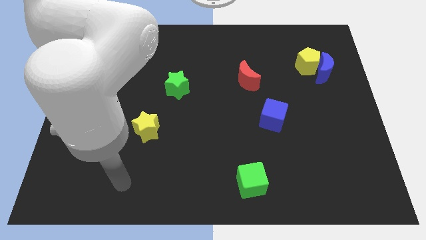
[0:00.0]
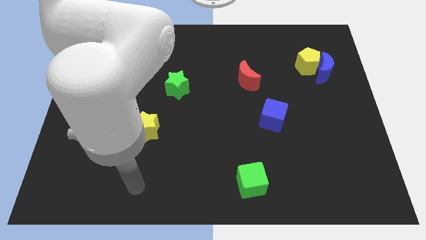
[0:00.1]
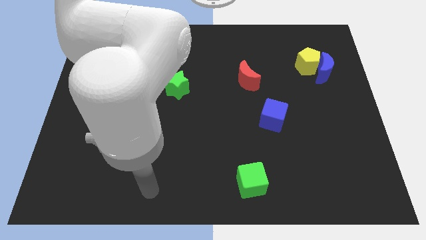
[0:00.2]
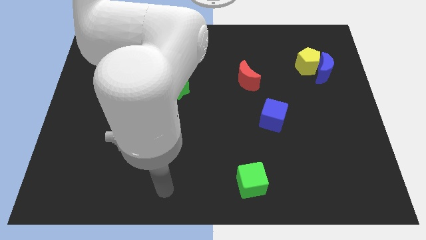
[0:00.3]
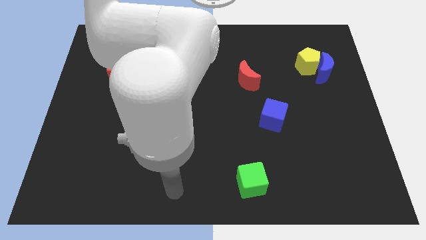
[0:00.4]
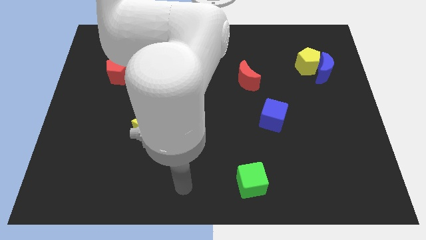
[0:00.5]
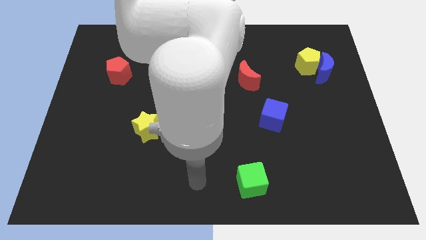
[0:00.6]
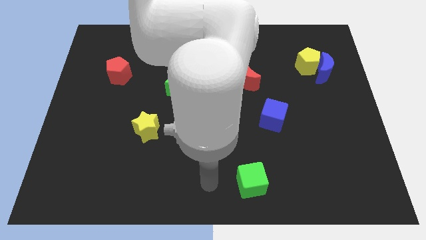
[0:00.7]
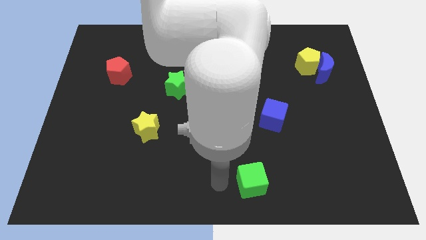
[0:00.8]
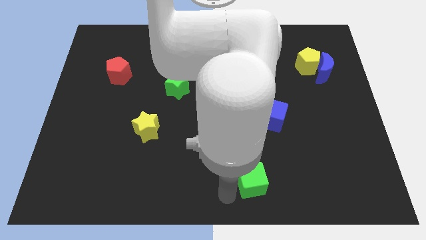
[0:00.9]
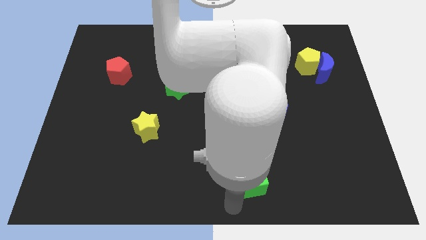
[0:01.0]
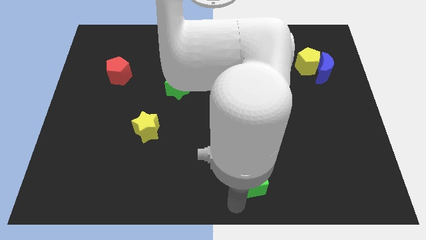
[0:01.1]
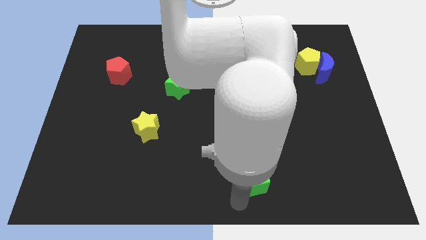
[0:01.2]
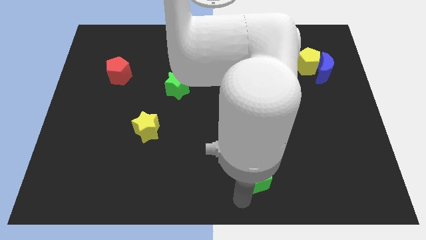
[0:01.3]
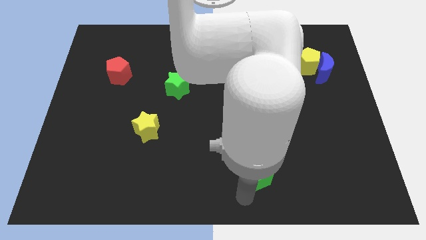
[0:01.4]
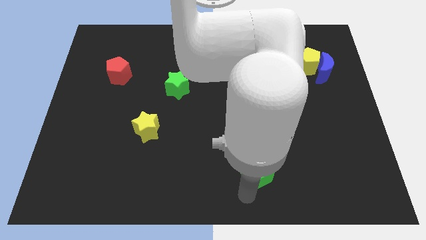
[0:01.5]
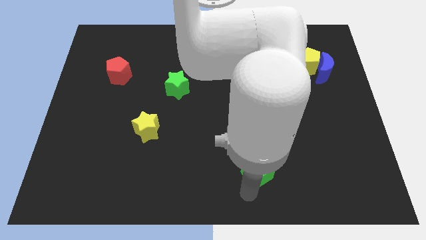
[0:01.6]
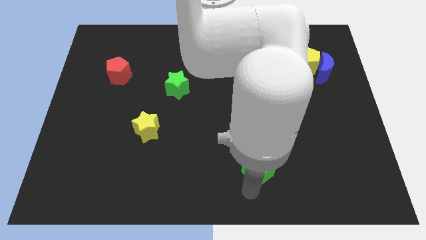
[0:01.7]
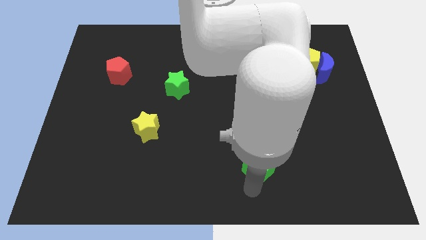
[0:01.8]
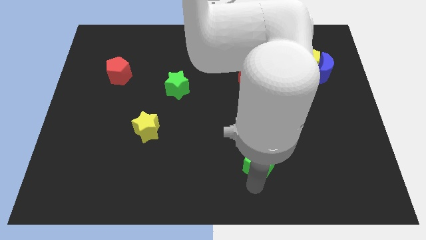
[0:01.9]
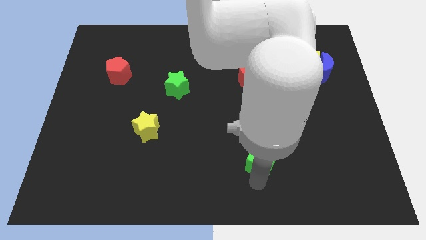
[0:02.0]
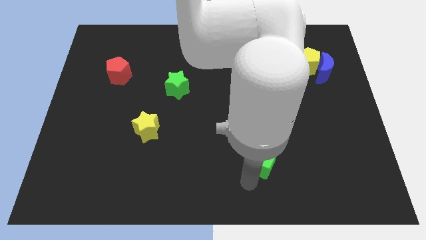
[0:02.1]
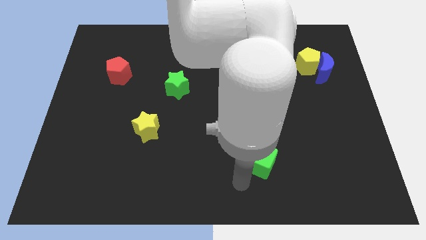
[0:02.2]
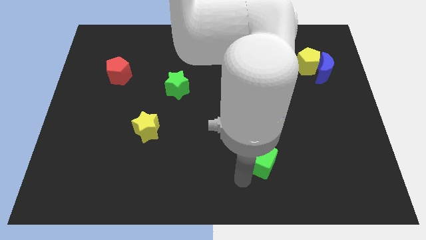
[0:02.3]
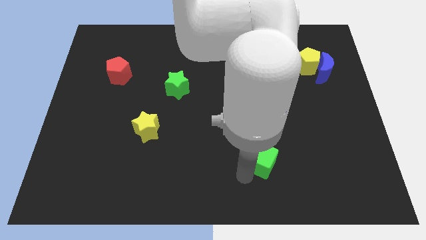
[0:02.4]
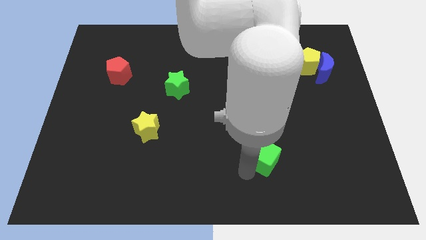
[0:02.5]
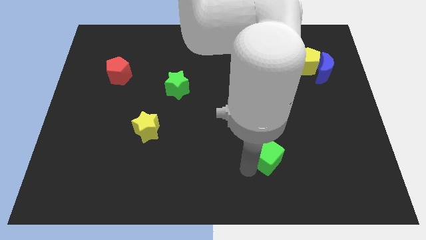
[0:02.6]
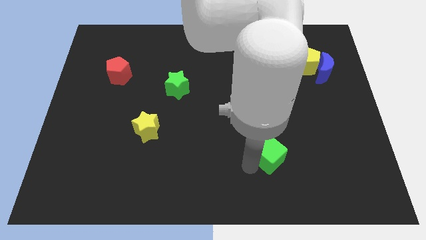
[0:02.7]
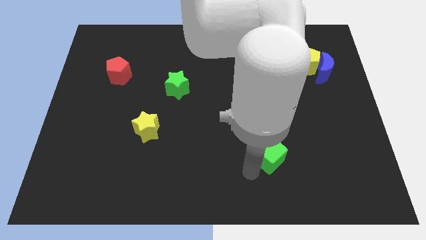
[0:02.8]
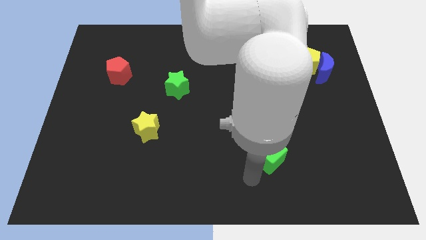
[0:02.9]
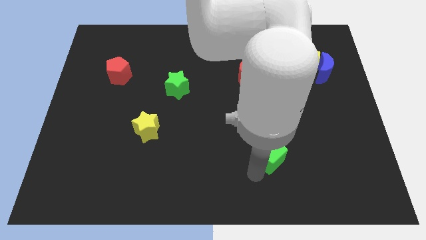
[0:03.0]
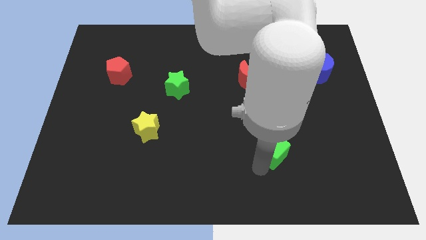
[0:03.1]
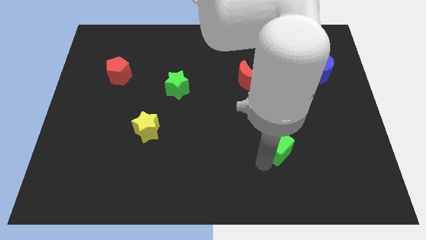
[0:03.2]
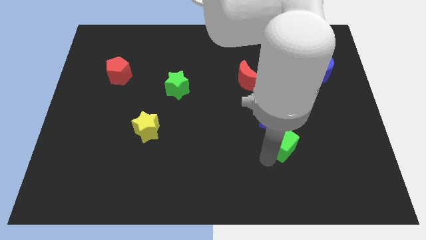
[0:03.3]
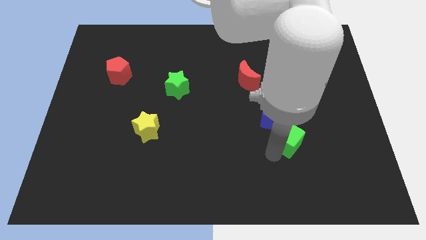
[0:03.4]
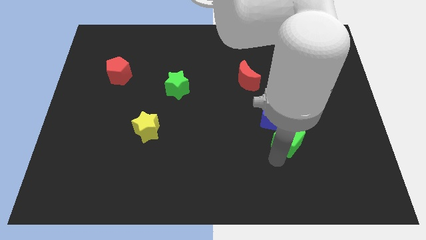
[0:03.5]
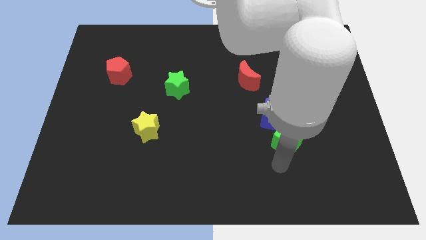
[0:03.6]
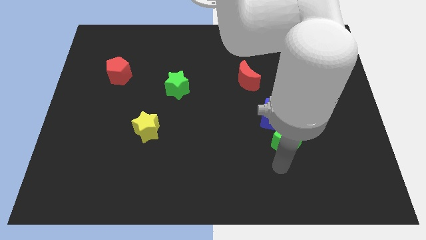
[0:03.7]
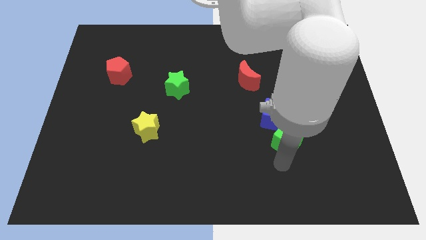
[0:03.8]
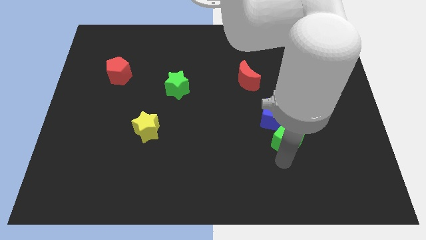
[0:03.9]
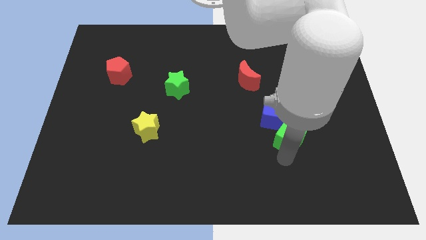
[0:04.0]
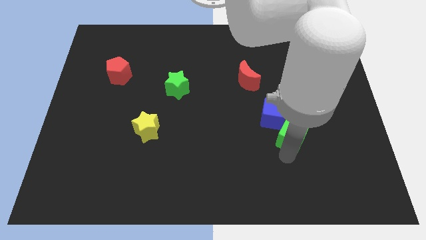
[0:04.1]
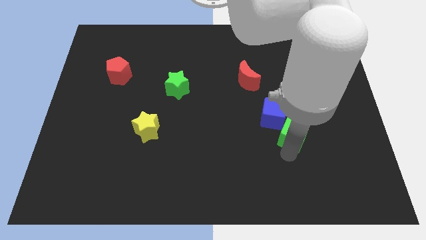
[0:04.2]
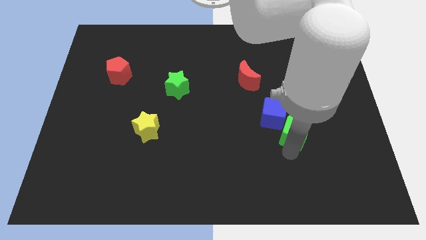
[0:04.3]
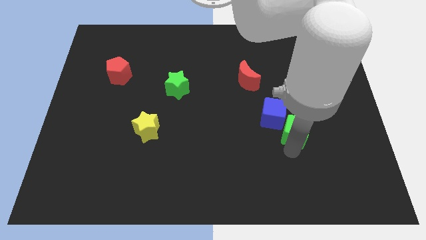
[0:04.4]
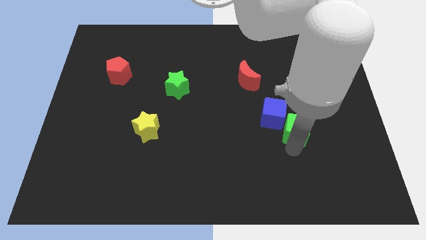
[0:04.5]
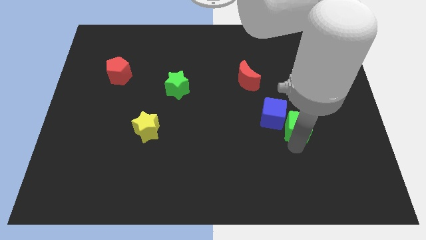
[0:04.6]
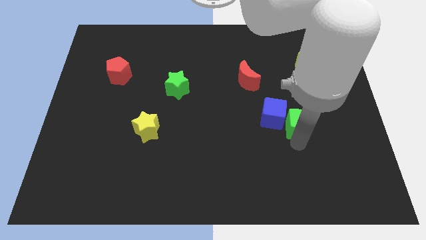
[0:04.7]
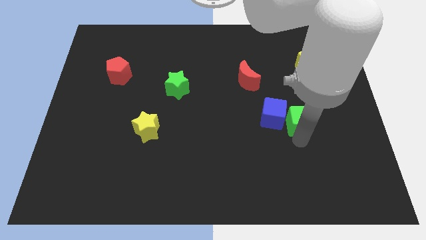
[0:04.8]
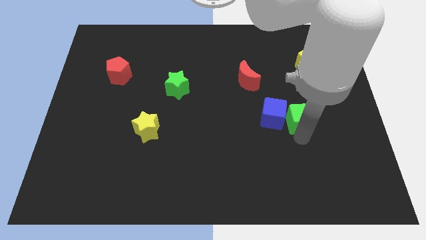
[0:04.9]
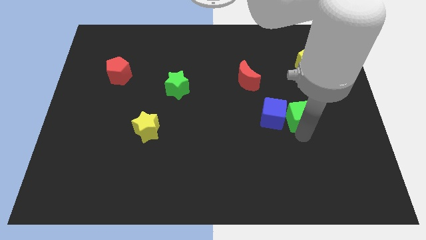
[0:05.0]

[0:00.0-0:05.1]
move the green cube diagonally up and to the right of the blue cube

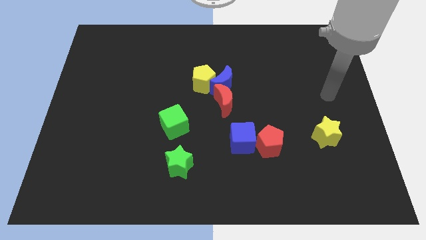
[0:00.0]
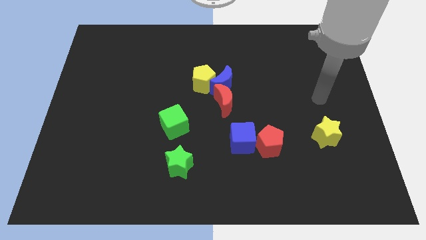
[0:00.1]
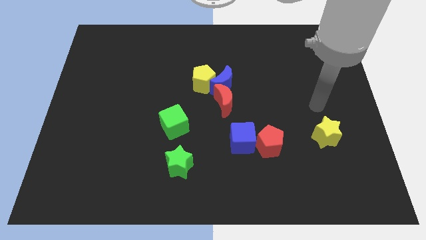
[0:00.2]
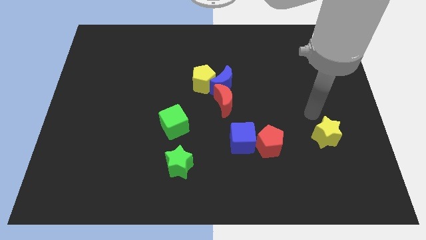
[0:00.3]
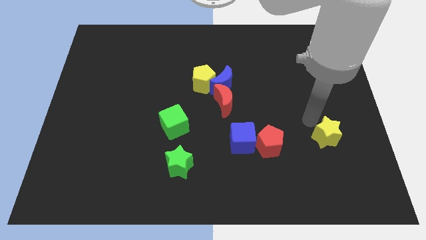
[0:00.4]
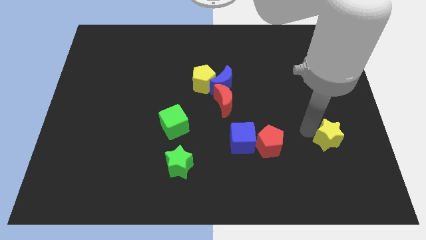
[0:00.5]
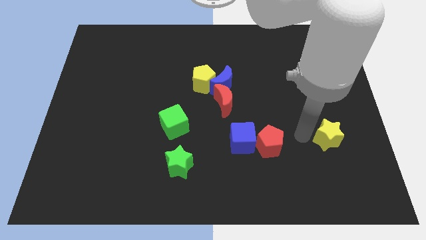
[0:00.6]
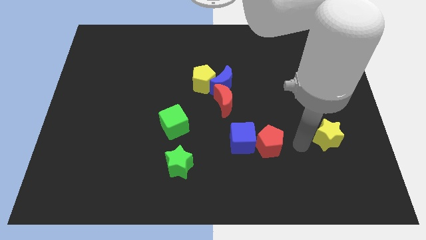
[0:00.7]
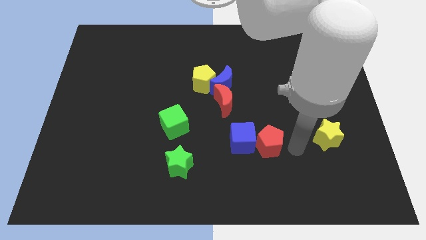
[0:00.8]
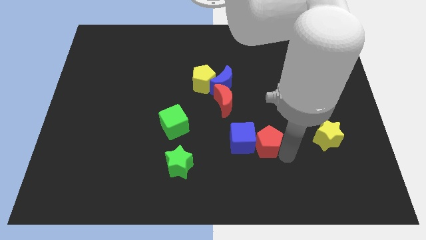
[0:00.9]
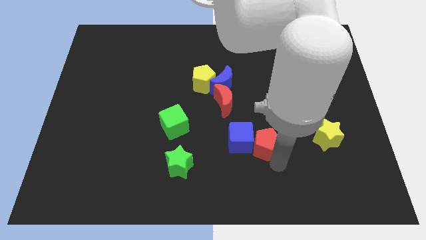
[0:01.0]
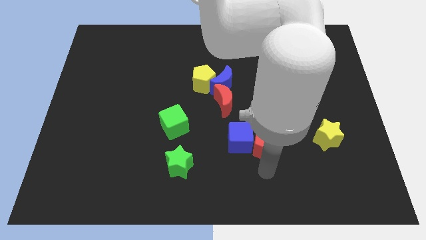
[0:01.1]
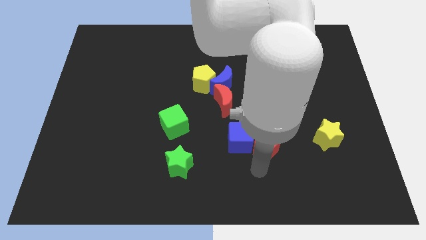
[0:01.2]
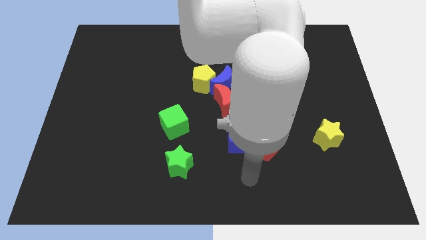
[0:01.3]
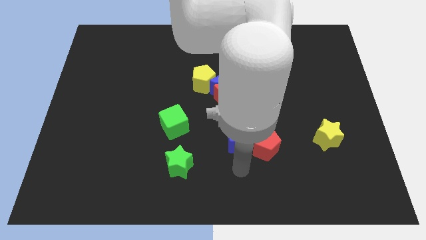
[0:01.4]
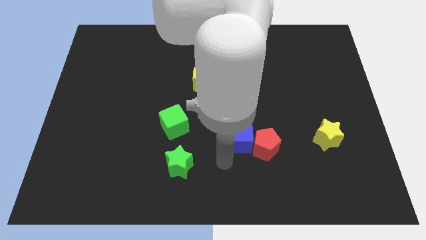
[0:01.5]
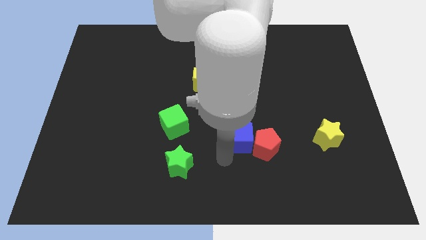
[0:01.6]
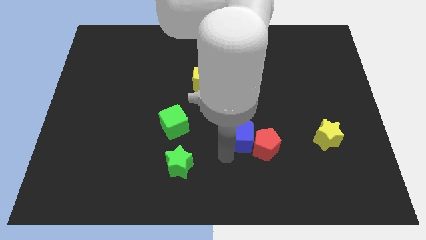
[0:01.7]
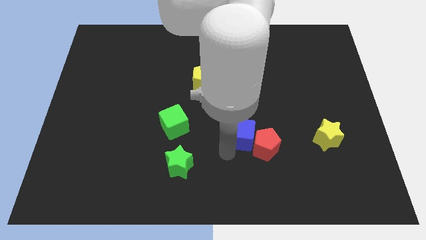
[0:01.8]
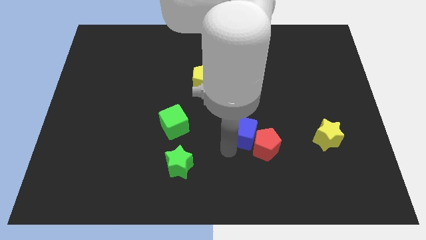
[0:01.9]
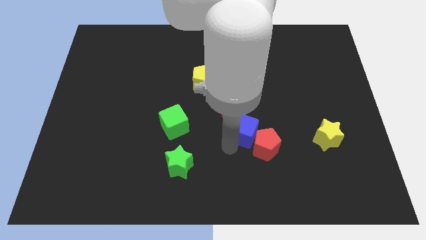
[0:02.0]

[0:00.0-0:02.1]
move the blue cube to the top side of the red pentagon

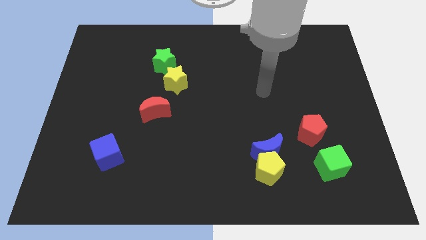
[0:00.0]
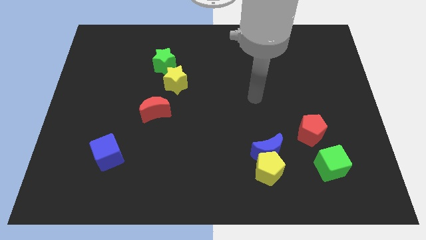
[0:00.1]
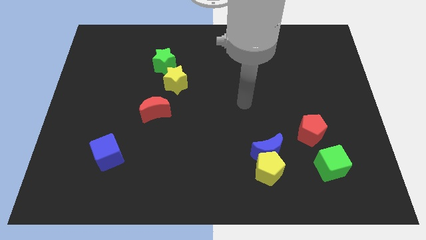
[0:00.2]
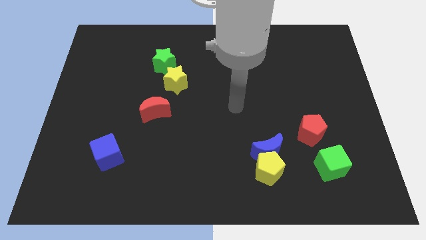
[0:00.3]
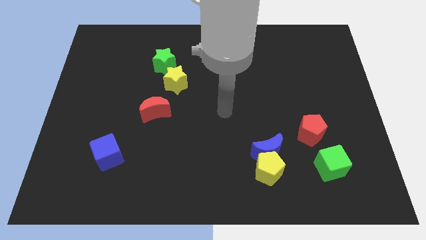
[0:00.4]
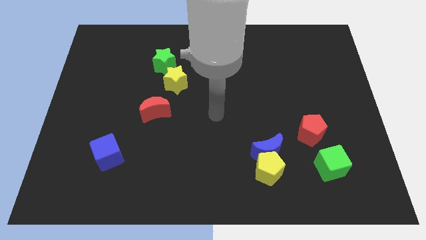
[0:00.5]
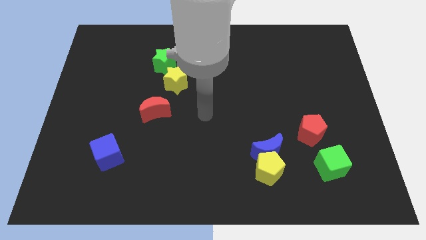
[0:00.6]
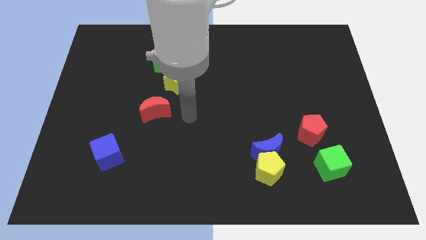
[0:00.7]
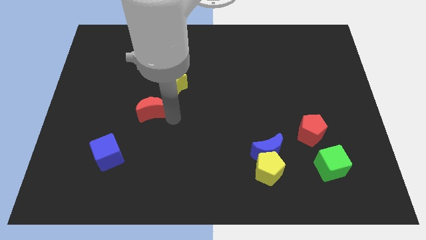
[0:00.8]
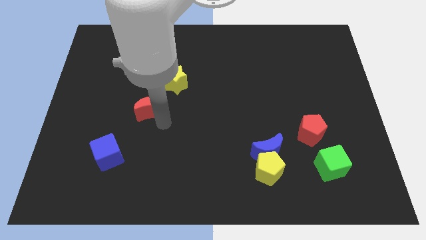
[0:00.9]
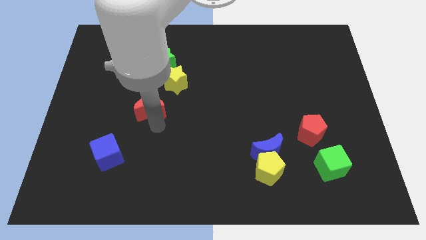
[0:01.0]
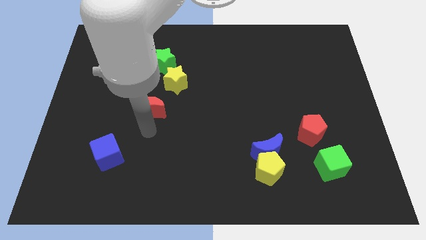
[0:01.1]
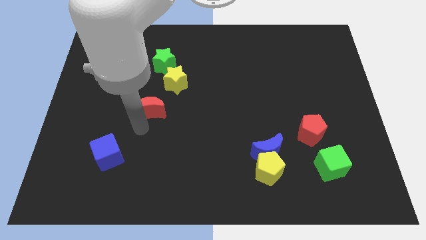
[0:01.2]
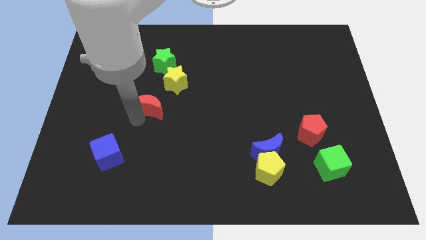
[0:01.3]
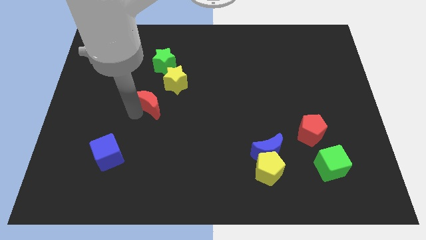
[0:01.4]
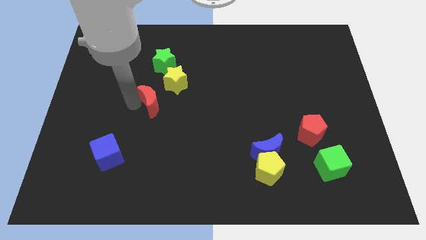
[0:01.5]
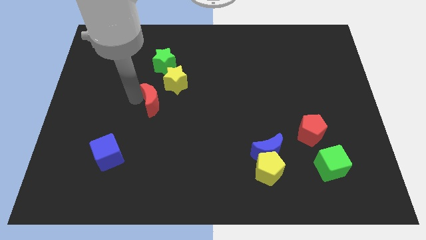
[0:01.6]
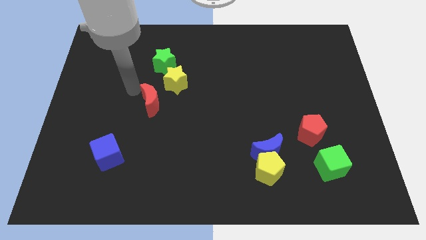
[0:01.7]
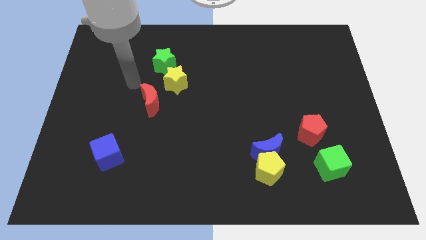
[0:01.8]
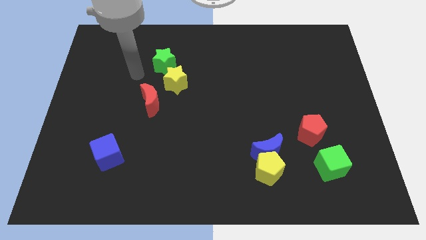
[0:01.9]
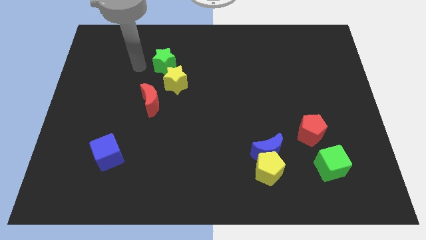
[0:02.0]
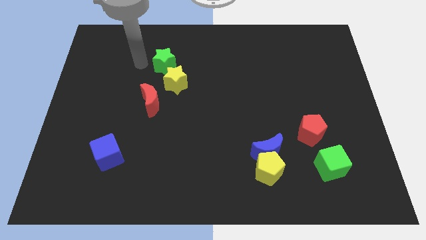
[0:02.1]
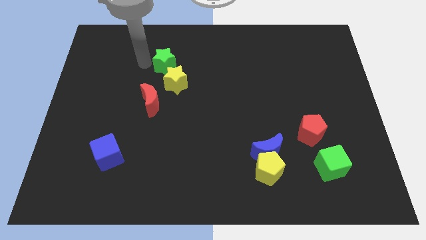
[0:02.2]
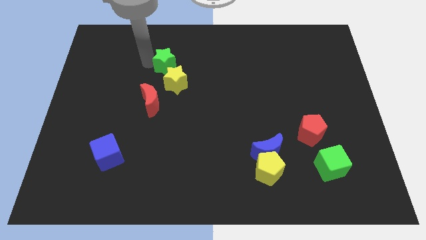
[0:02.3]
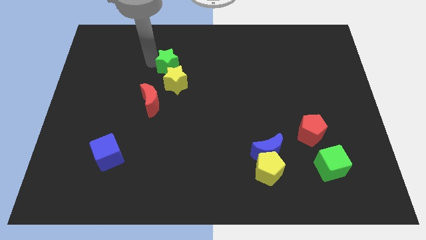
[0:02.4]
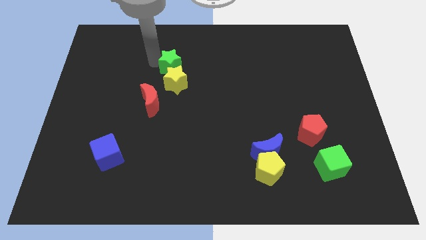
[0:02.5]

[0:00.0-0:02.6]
push the green star diagonally up and to the right of the yellow star
